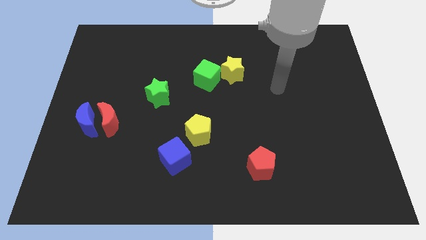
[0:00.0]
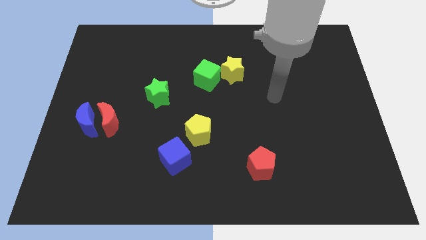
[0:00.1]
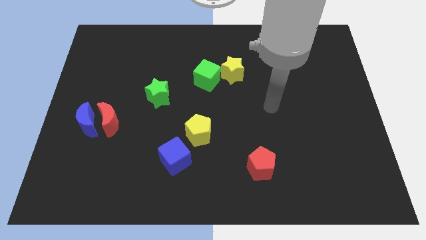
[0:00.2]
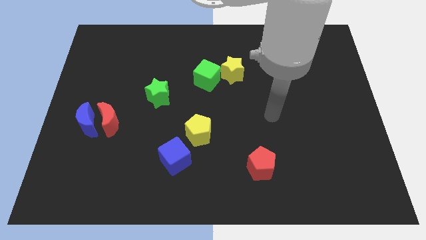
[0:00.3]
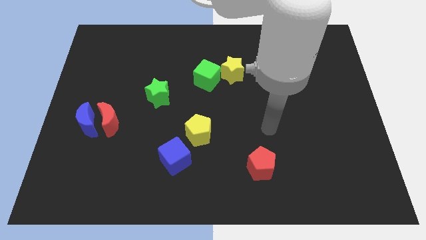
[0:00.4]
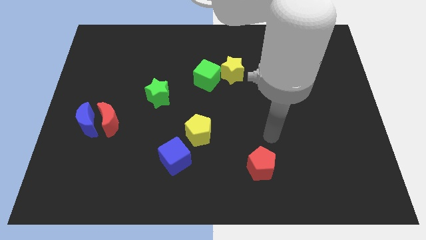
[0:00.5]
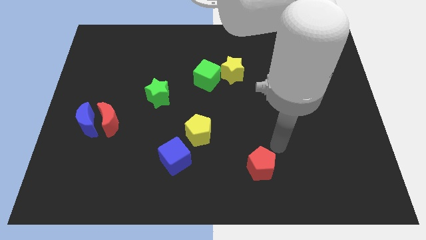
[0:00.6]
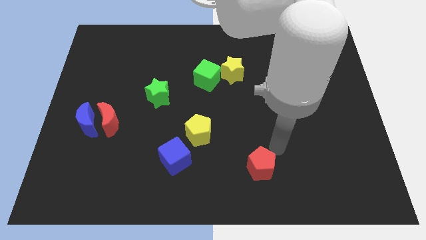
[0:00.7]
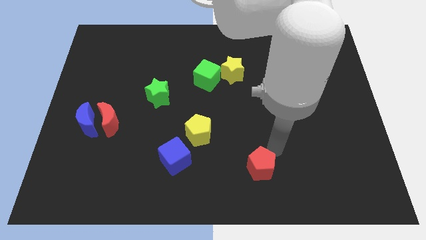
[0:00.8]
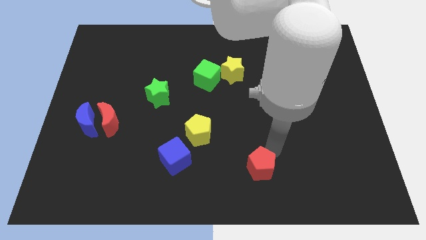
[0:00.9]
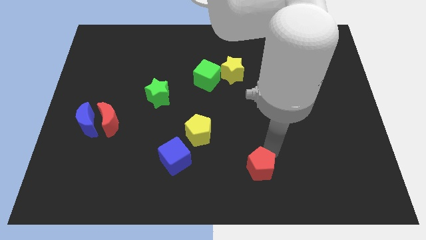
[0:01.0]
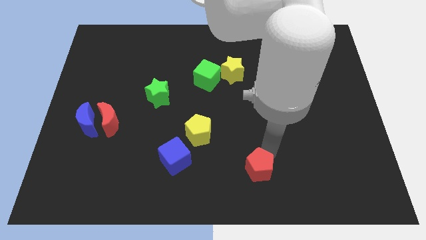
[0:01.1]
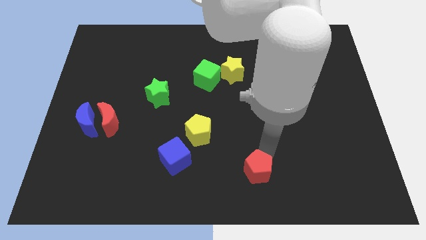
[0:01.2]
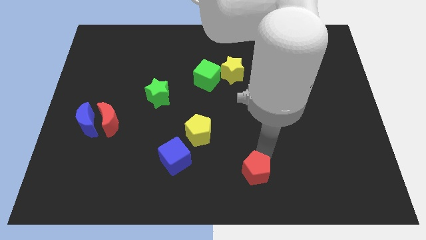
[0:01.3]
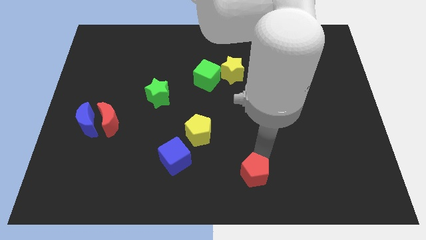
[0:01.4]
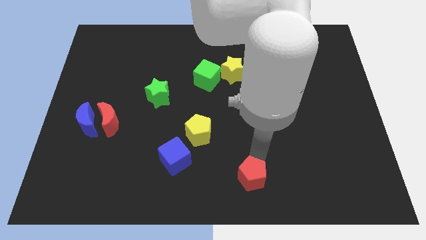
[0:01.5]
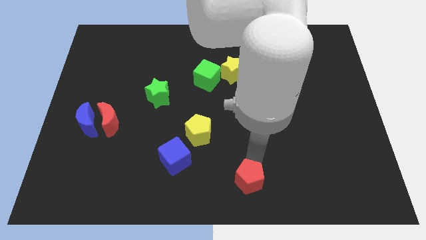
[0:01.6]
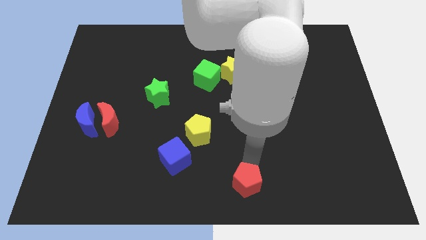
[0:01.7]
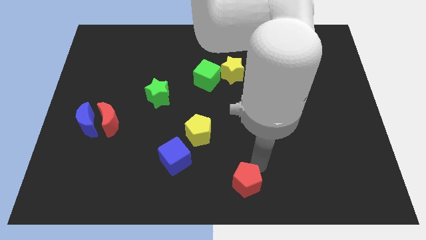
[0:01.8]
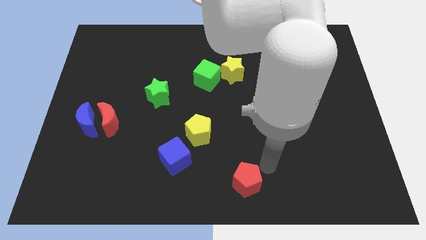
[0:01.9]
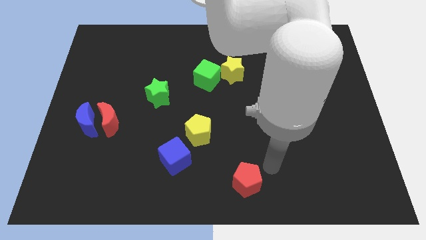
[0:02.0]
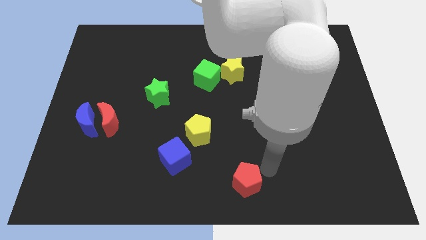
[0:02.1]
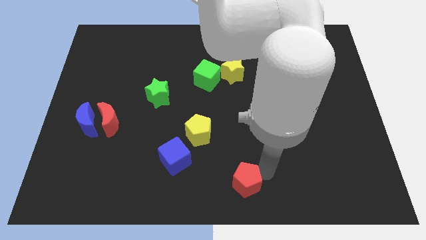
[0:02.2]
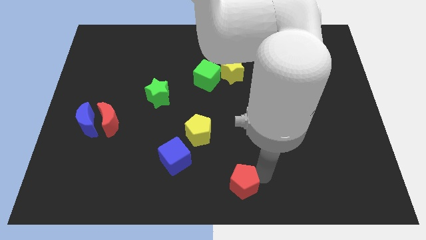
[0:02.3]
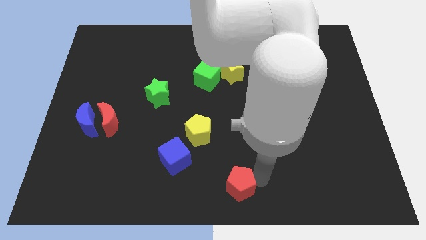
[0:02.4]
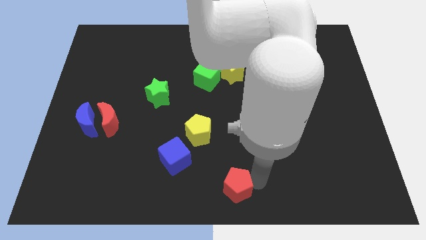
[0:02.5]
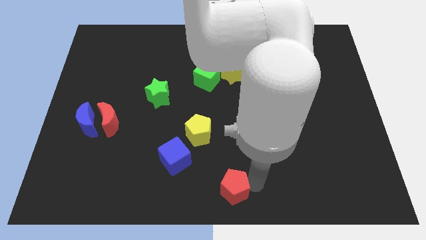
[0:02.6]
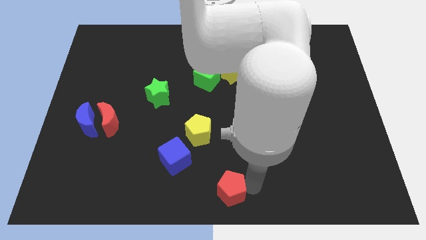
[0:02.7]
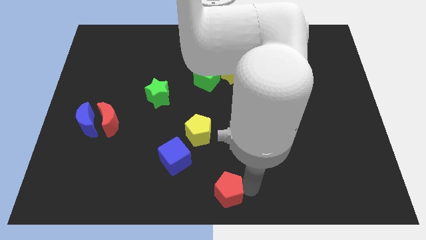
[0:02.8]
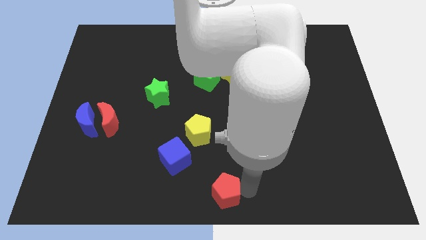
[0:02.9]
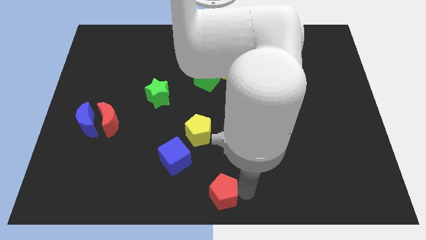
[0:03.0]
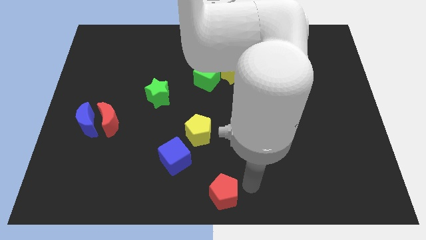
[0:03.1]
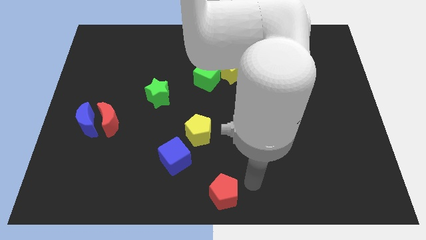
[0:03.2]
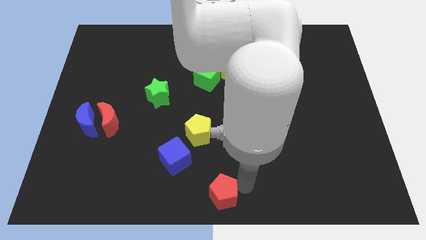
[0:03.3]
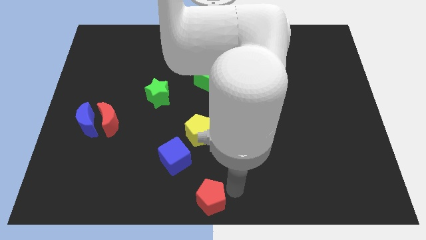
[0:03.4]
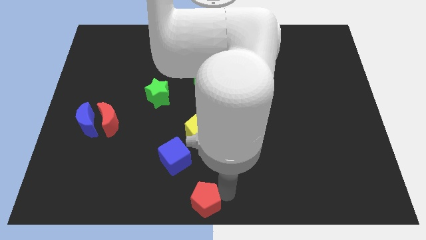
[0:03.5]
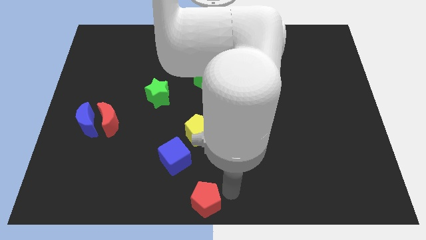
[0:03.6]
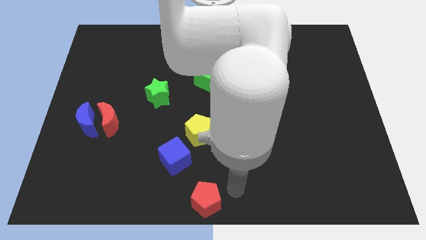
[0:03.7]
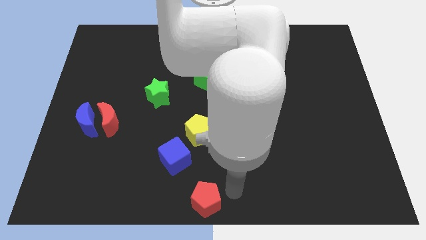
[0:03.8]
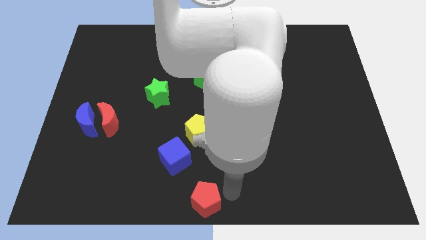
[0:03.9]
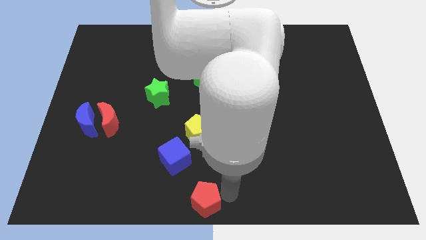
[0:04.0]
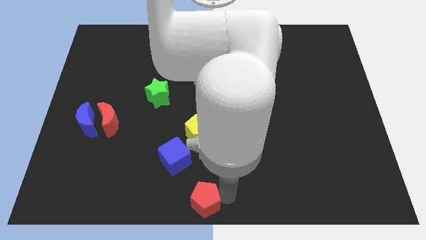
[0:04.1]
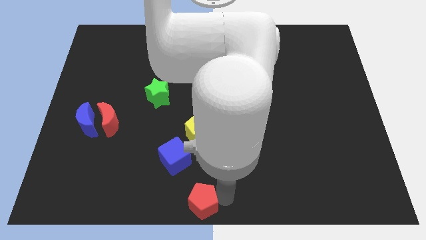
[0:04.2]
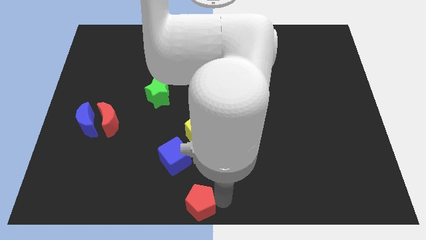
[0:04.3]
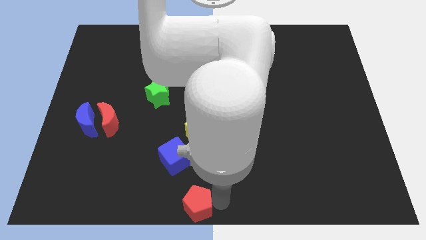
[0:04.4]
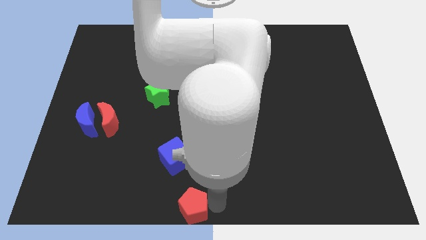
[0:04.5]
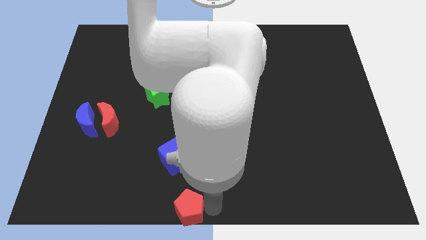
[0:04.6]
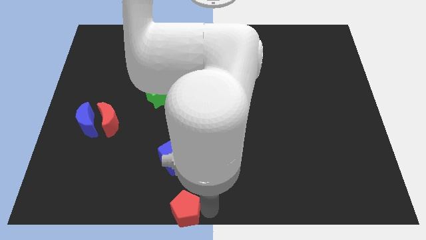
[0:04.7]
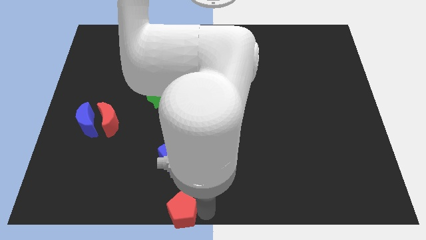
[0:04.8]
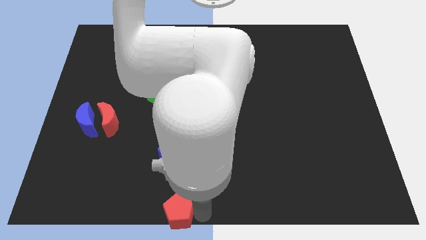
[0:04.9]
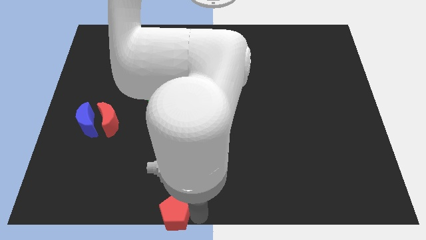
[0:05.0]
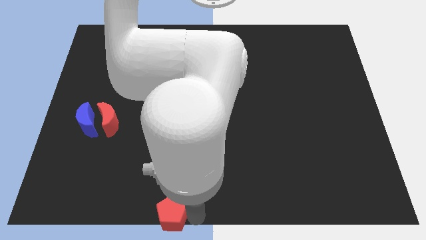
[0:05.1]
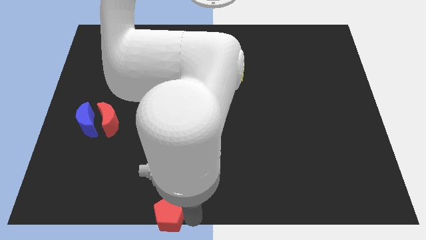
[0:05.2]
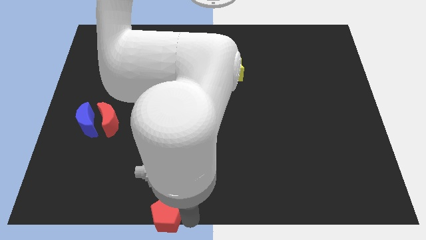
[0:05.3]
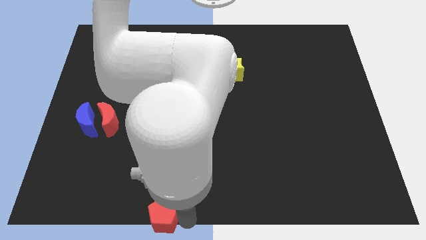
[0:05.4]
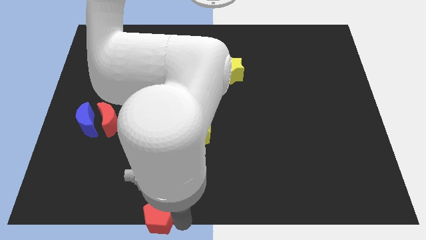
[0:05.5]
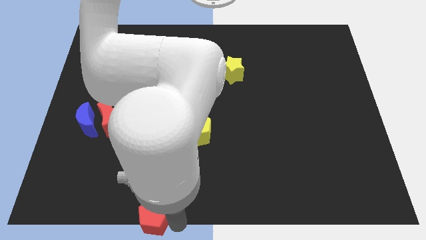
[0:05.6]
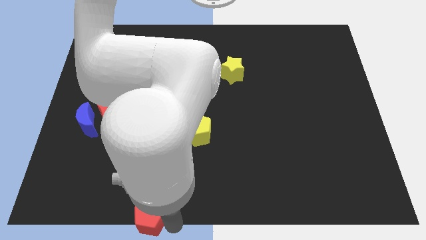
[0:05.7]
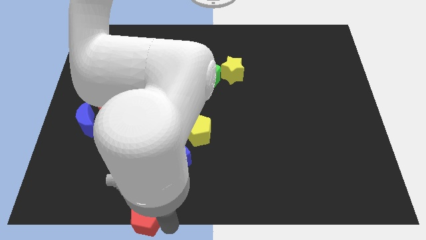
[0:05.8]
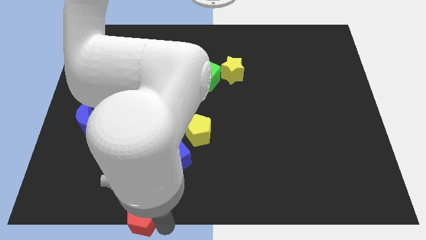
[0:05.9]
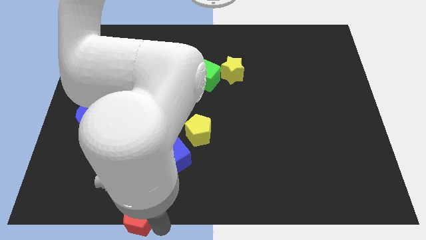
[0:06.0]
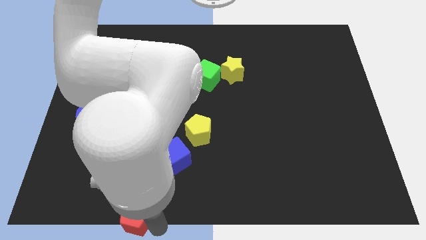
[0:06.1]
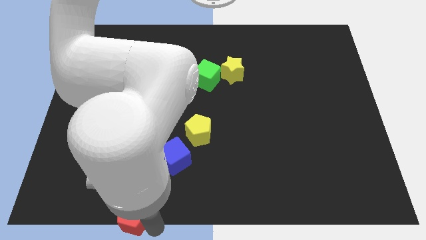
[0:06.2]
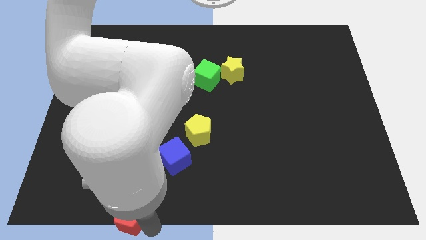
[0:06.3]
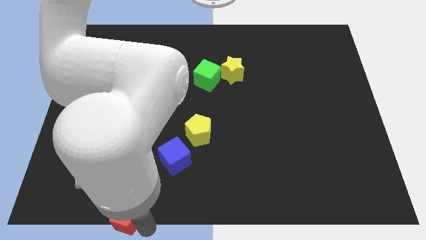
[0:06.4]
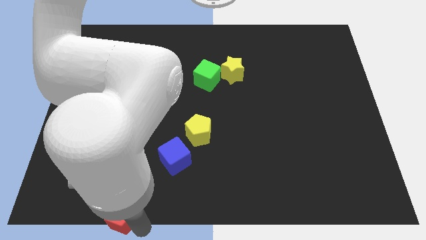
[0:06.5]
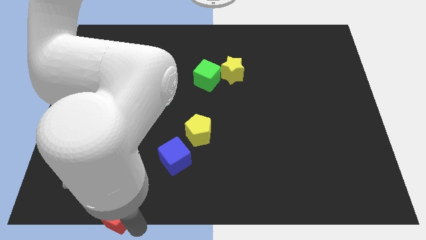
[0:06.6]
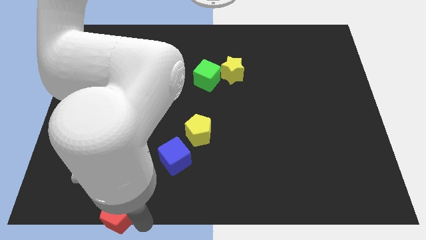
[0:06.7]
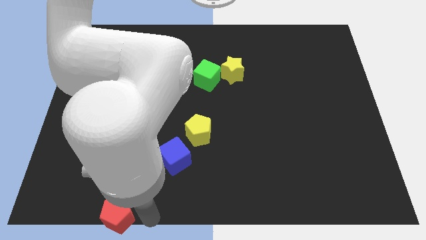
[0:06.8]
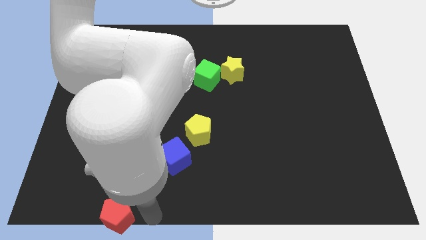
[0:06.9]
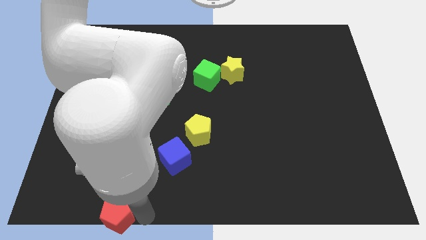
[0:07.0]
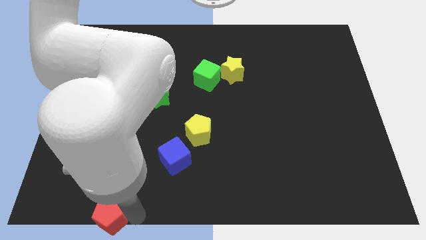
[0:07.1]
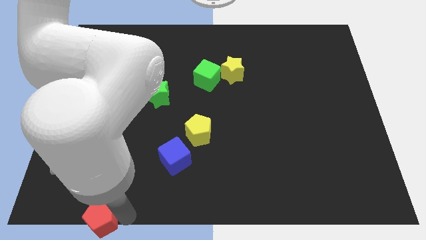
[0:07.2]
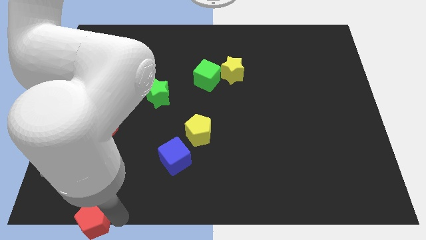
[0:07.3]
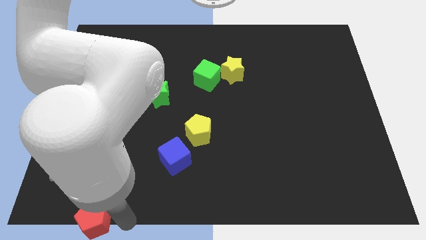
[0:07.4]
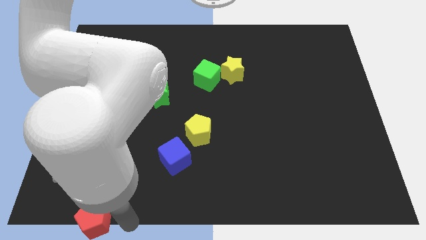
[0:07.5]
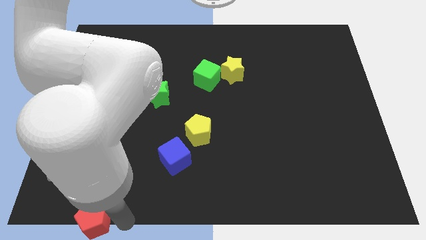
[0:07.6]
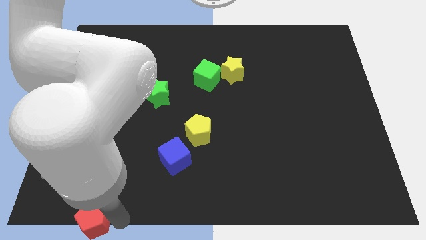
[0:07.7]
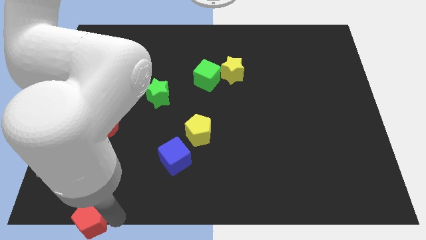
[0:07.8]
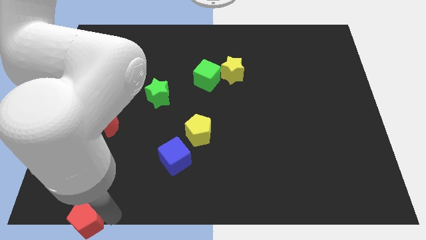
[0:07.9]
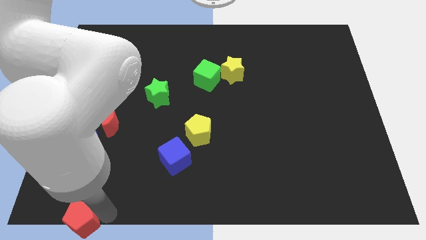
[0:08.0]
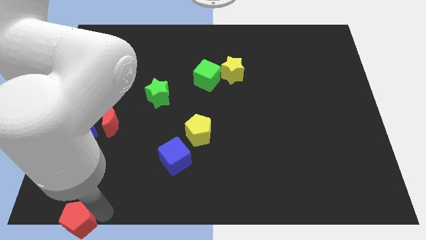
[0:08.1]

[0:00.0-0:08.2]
put the red pentagon to the bottom left
